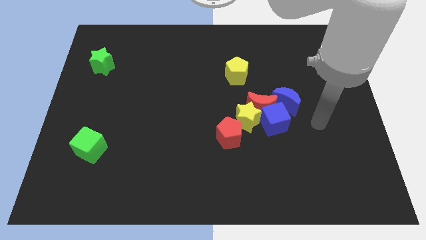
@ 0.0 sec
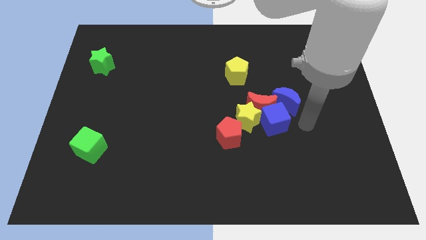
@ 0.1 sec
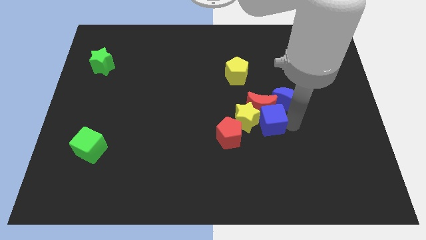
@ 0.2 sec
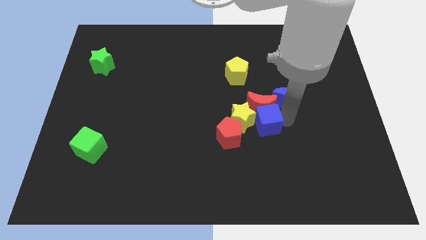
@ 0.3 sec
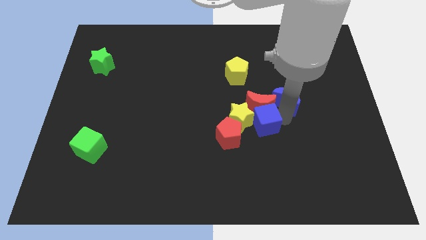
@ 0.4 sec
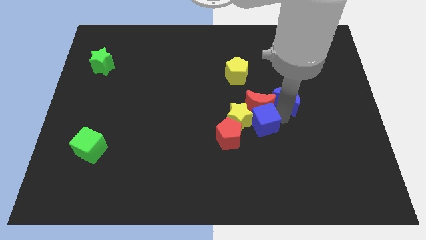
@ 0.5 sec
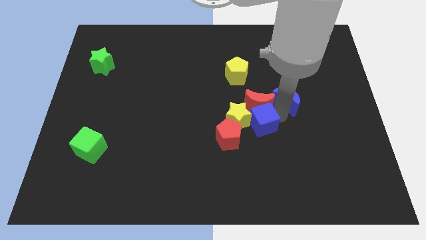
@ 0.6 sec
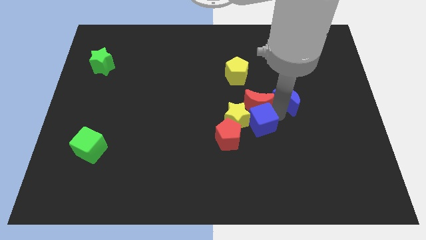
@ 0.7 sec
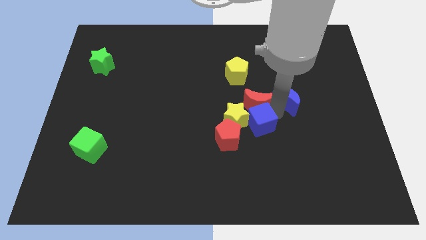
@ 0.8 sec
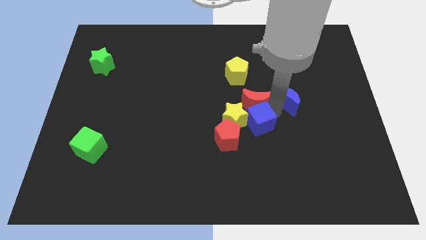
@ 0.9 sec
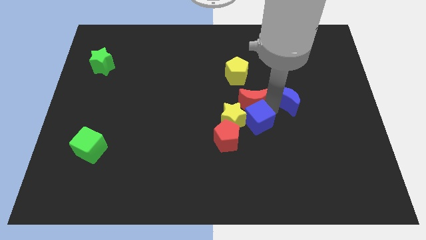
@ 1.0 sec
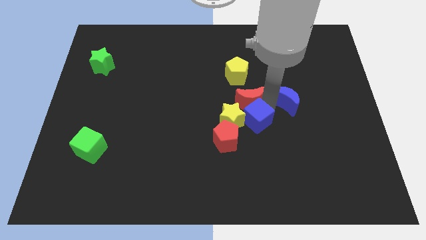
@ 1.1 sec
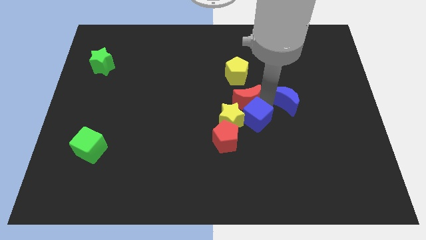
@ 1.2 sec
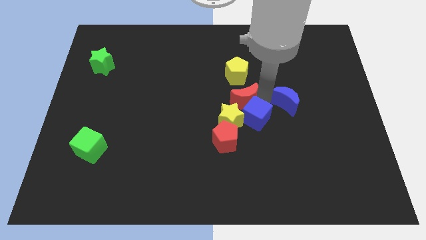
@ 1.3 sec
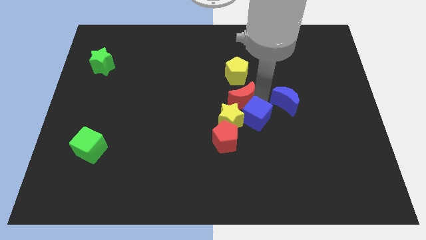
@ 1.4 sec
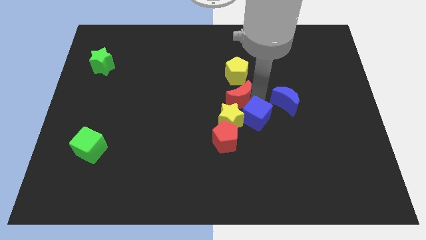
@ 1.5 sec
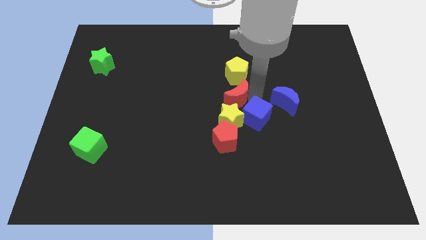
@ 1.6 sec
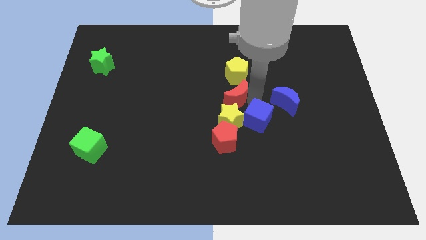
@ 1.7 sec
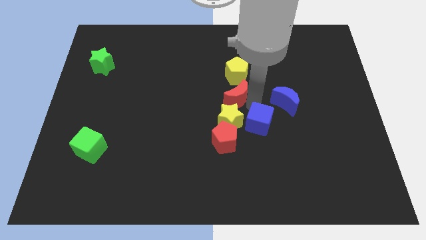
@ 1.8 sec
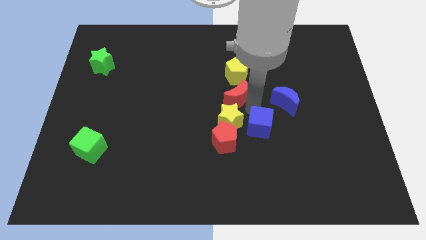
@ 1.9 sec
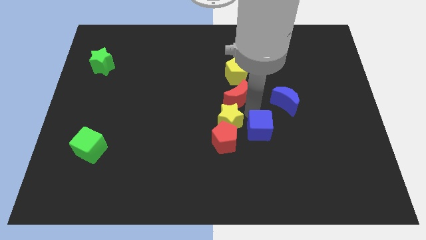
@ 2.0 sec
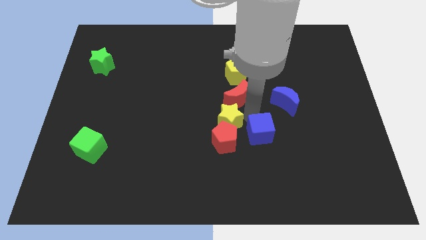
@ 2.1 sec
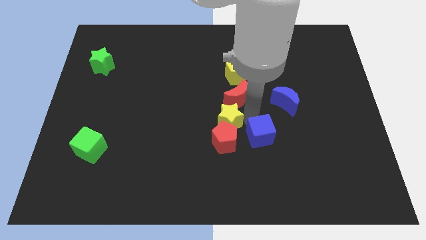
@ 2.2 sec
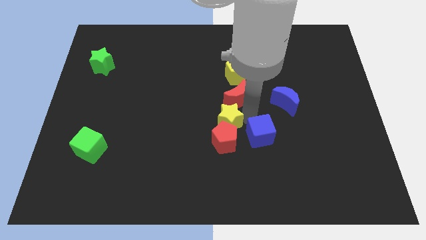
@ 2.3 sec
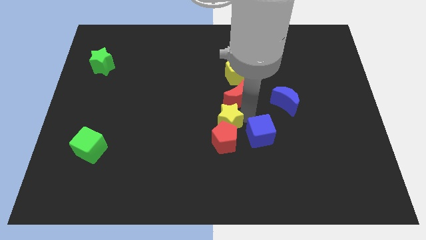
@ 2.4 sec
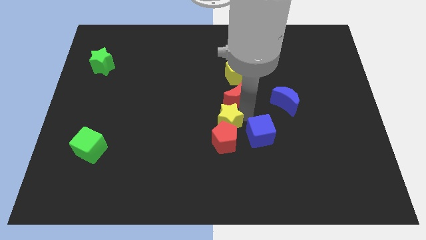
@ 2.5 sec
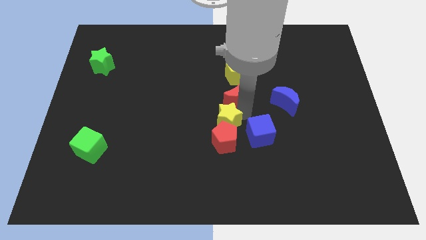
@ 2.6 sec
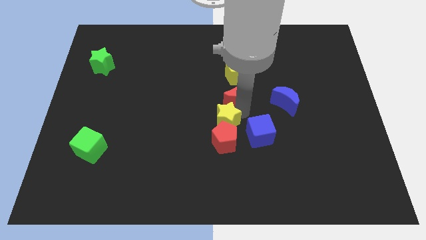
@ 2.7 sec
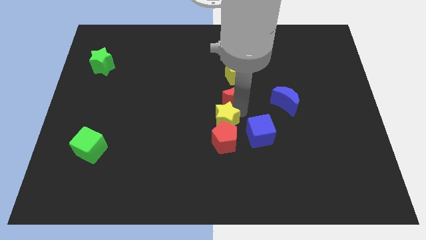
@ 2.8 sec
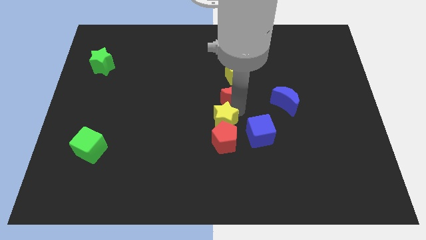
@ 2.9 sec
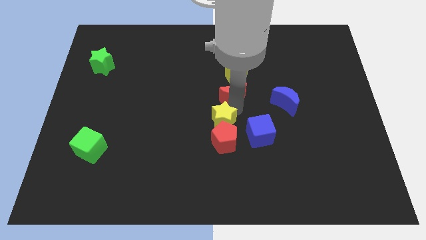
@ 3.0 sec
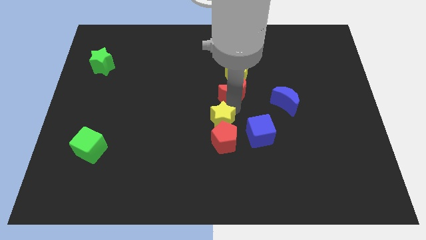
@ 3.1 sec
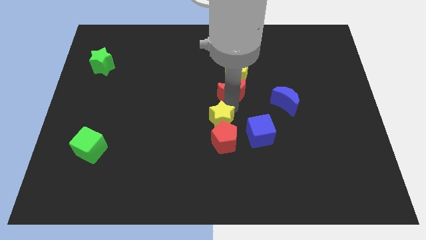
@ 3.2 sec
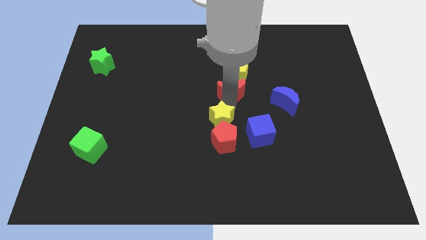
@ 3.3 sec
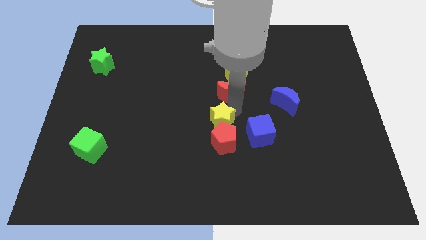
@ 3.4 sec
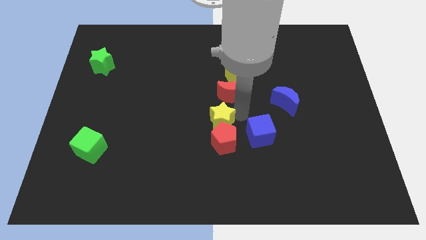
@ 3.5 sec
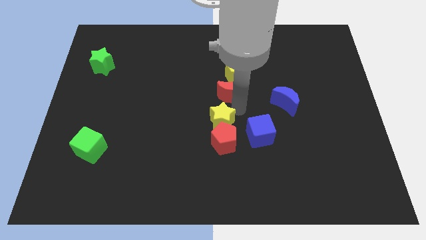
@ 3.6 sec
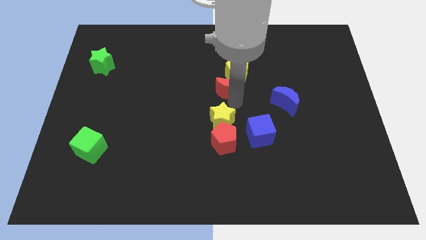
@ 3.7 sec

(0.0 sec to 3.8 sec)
pull the red moon apart from the clump

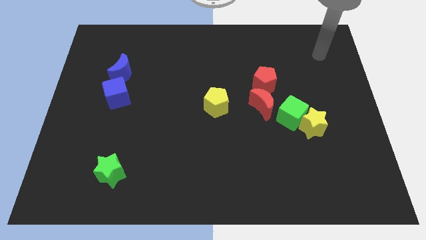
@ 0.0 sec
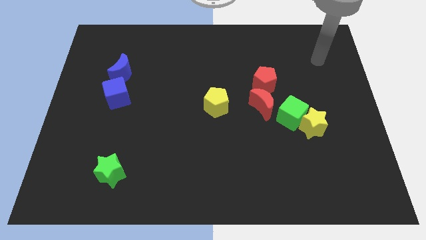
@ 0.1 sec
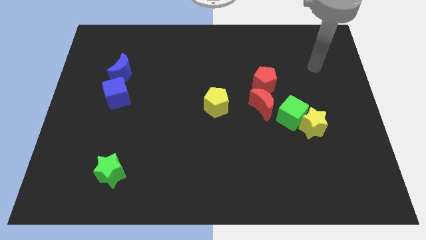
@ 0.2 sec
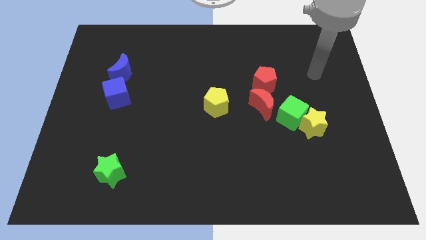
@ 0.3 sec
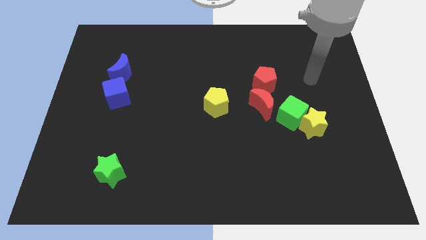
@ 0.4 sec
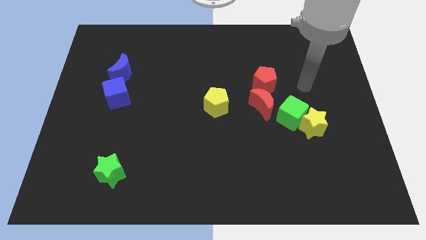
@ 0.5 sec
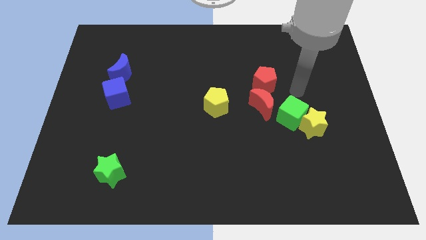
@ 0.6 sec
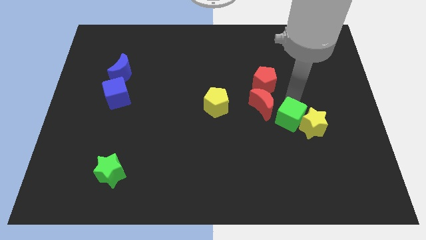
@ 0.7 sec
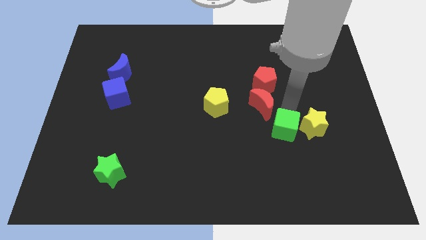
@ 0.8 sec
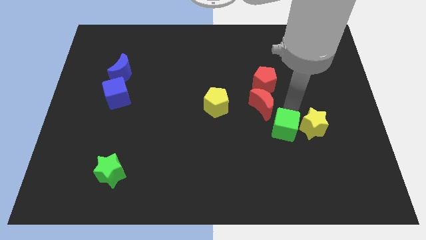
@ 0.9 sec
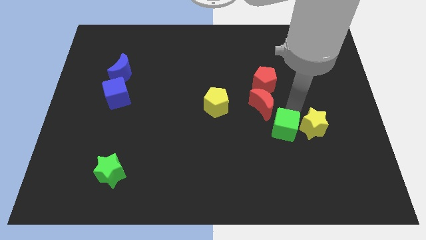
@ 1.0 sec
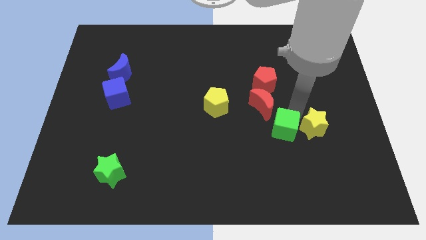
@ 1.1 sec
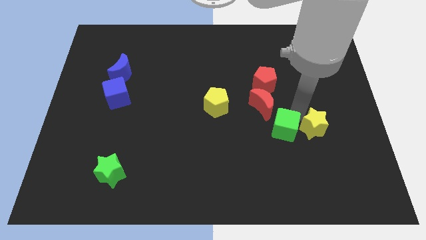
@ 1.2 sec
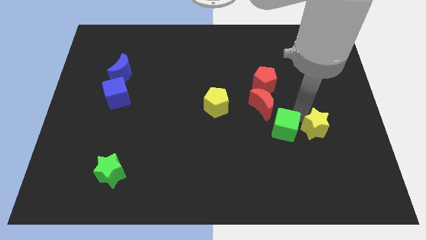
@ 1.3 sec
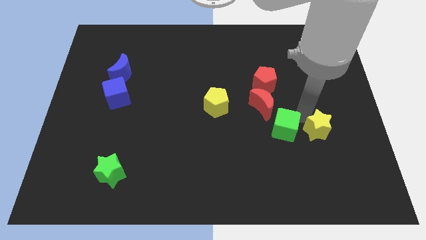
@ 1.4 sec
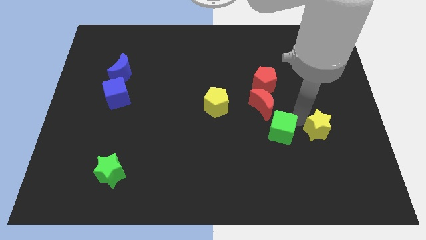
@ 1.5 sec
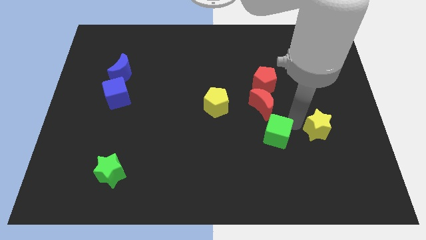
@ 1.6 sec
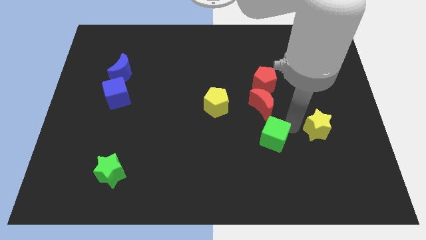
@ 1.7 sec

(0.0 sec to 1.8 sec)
separate the yellow star from the green cube

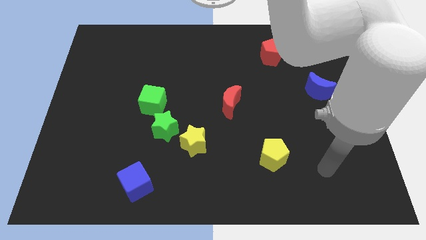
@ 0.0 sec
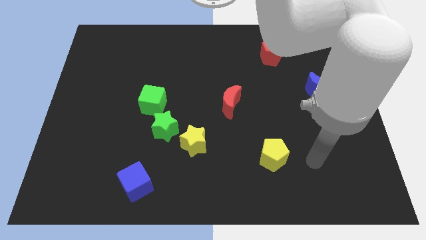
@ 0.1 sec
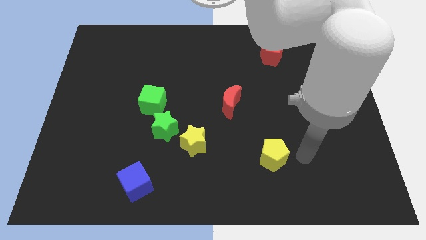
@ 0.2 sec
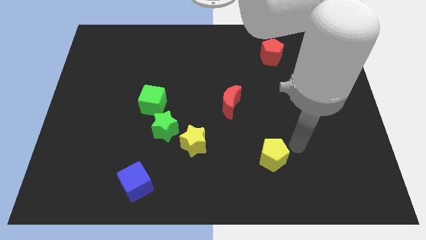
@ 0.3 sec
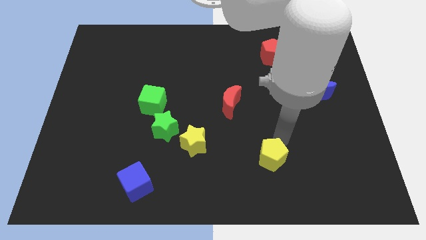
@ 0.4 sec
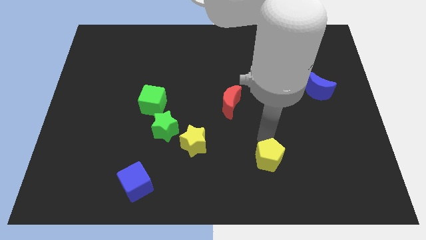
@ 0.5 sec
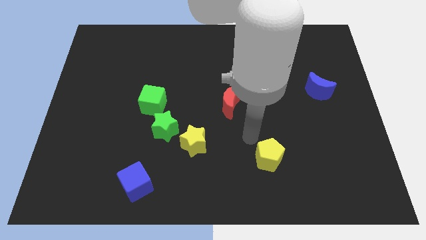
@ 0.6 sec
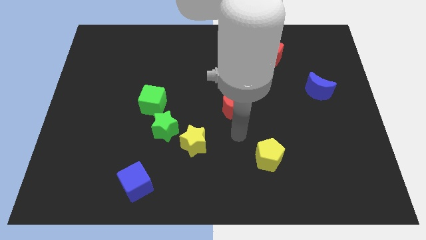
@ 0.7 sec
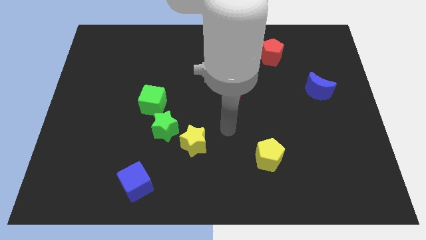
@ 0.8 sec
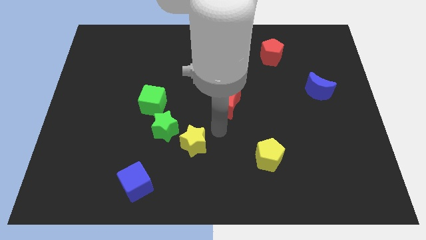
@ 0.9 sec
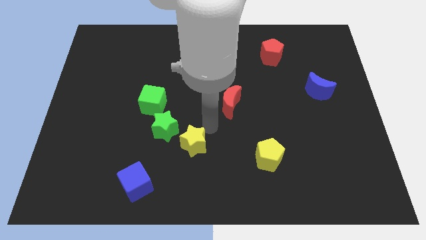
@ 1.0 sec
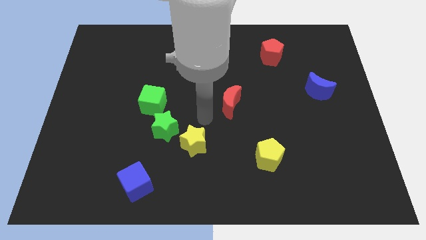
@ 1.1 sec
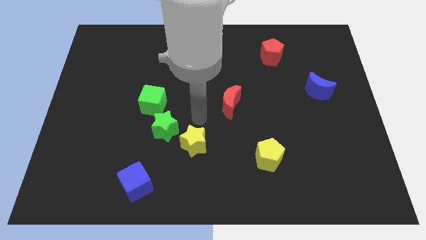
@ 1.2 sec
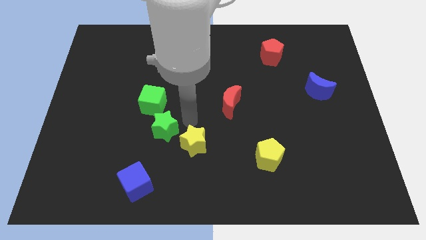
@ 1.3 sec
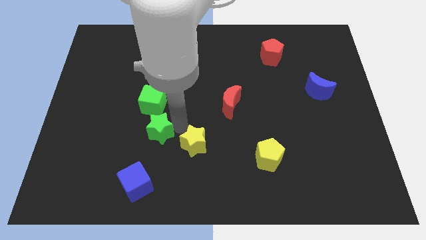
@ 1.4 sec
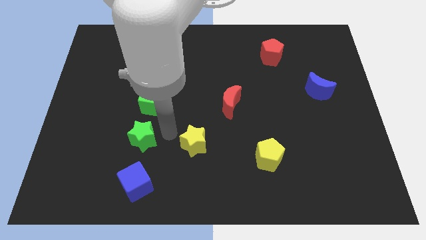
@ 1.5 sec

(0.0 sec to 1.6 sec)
pull the yellow star apart from the green star

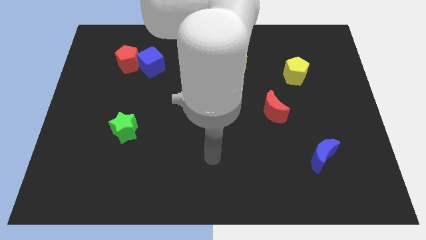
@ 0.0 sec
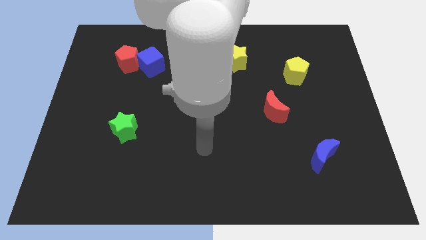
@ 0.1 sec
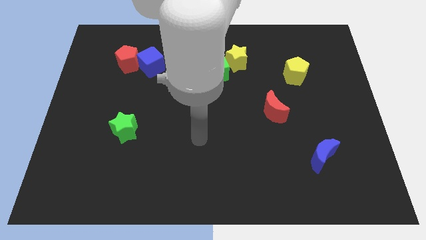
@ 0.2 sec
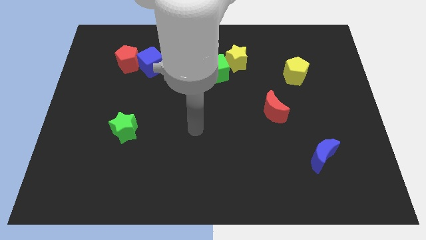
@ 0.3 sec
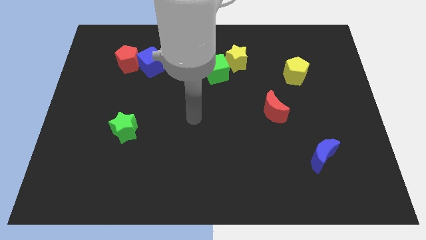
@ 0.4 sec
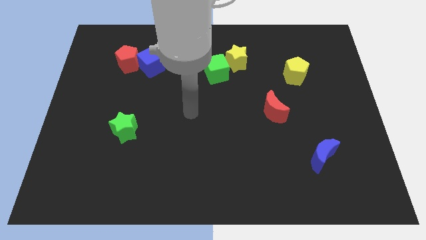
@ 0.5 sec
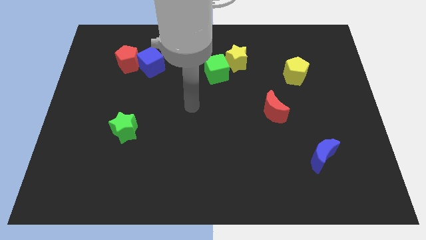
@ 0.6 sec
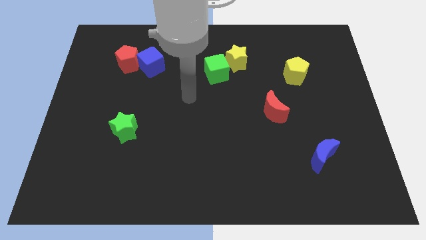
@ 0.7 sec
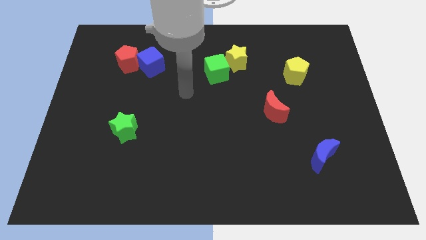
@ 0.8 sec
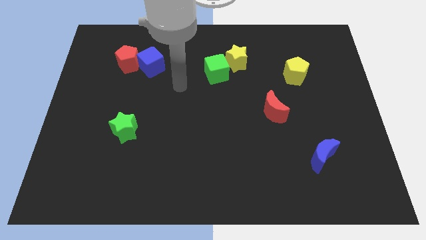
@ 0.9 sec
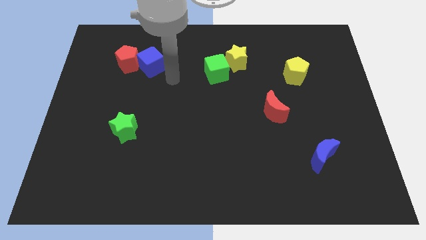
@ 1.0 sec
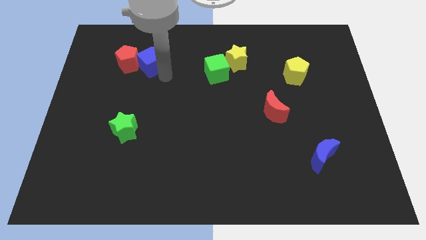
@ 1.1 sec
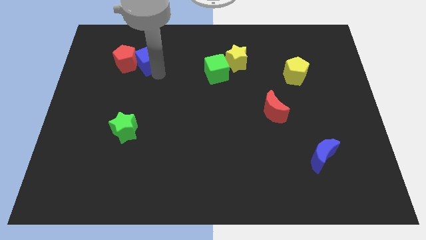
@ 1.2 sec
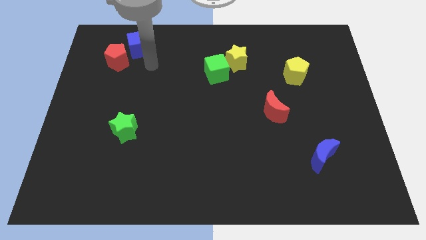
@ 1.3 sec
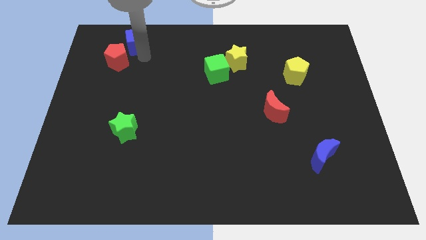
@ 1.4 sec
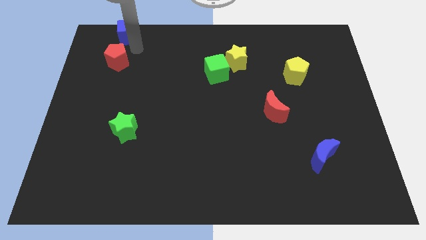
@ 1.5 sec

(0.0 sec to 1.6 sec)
pull the red pentagon apart from the blue cube

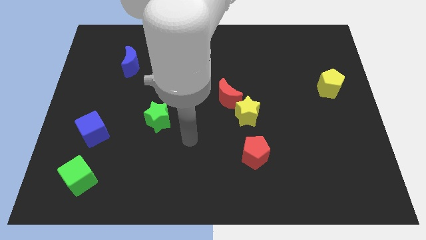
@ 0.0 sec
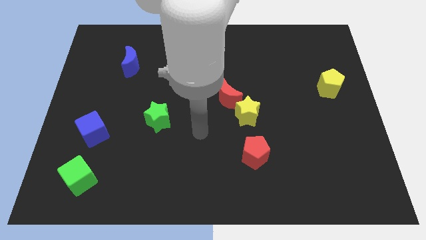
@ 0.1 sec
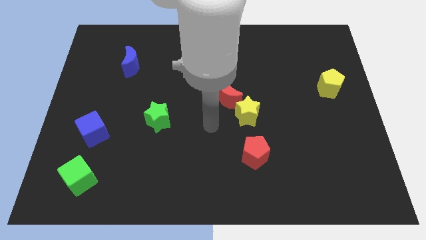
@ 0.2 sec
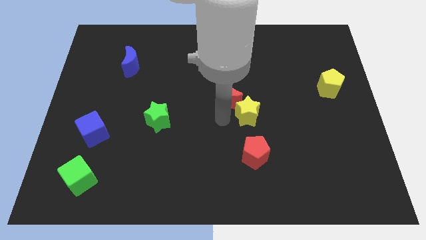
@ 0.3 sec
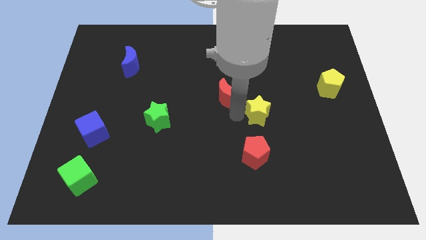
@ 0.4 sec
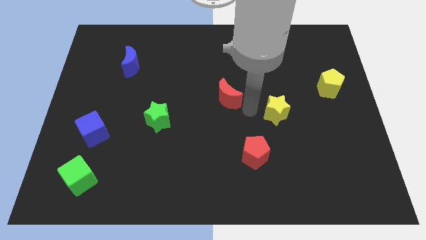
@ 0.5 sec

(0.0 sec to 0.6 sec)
pull the red moon apart from the yellow star
